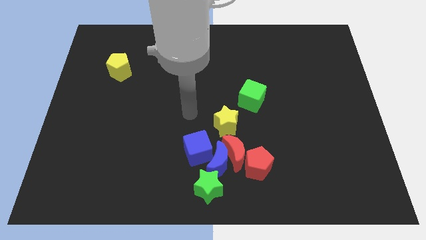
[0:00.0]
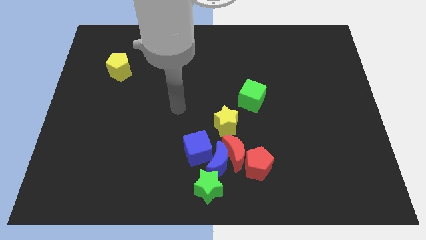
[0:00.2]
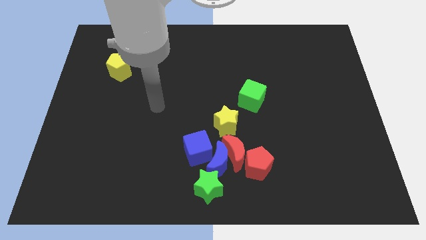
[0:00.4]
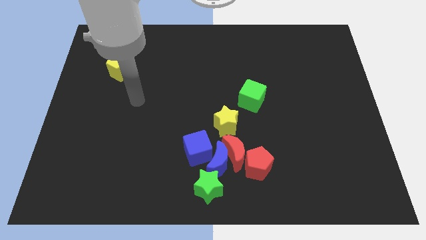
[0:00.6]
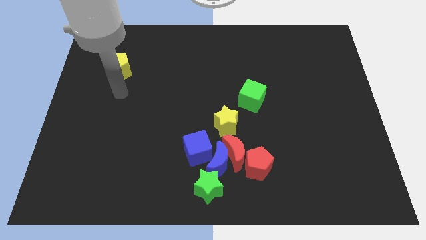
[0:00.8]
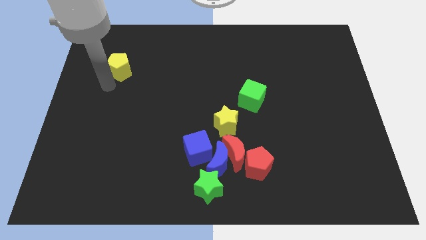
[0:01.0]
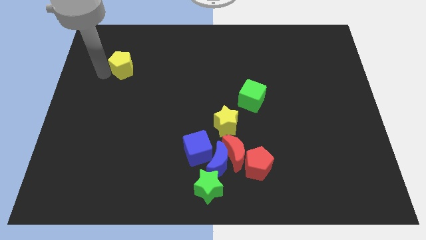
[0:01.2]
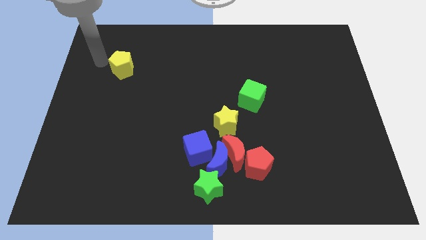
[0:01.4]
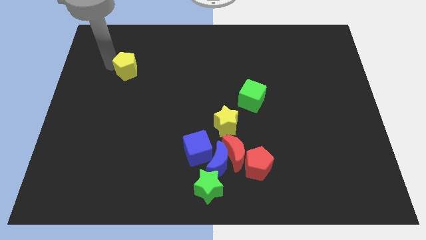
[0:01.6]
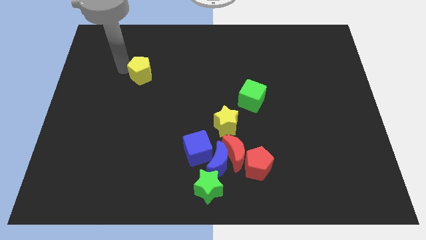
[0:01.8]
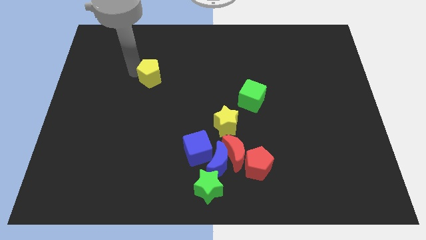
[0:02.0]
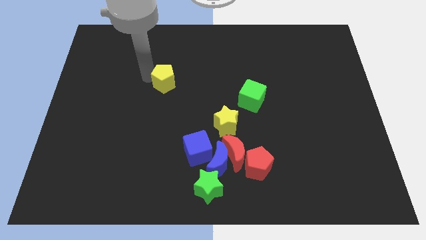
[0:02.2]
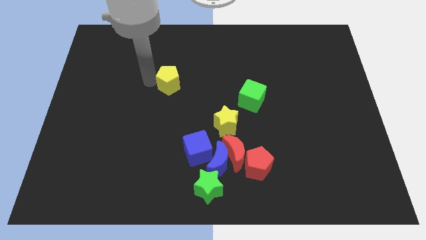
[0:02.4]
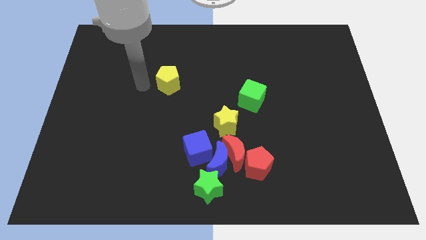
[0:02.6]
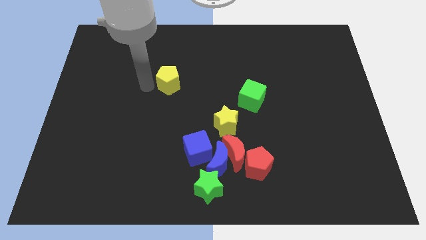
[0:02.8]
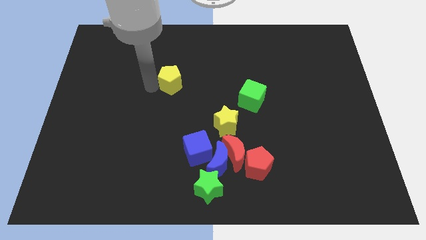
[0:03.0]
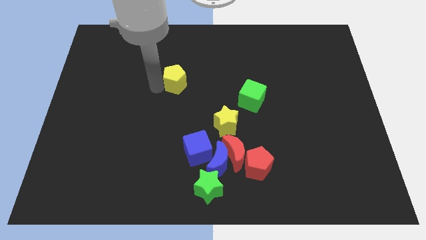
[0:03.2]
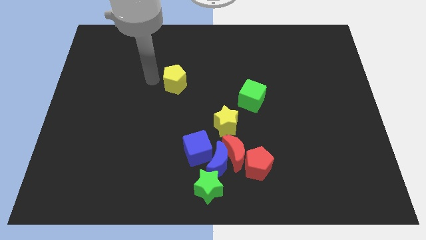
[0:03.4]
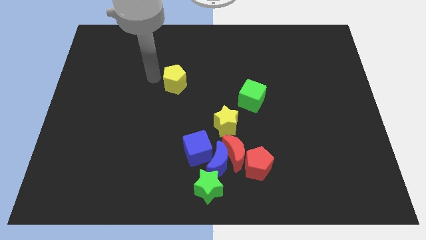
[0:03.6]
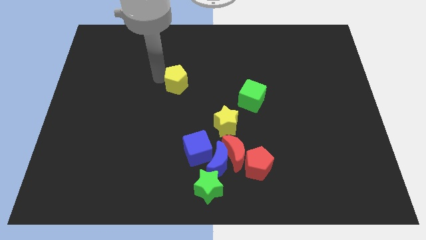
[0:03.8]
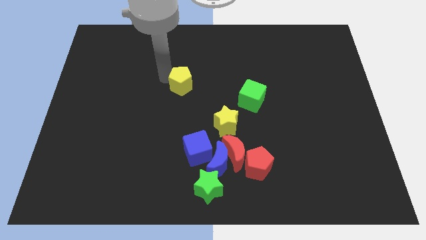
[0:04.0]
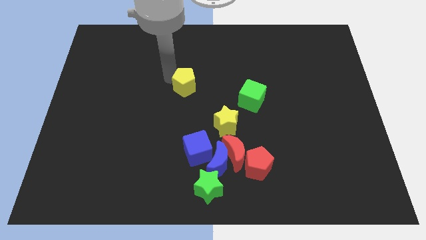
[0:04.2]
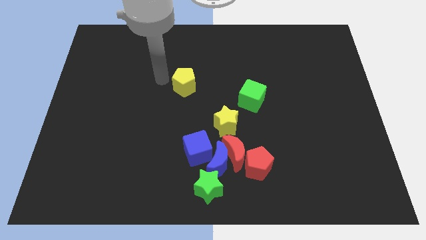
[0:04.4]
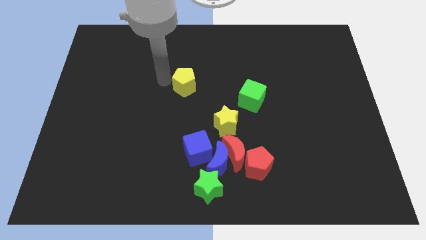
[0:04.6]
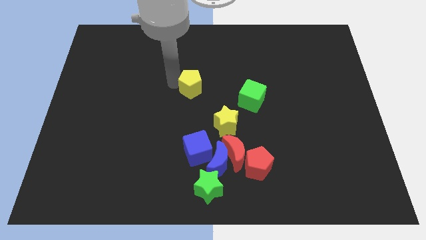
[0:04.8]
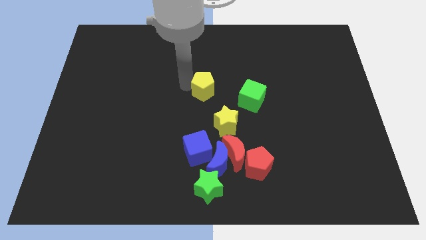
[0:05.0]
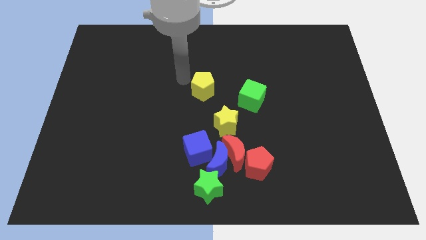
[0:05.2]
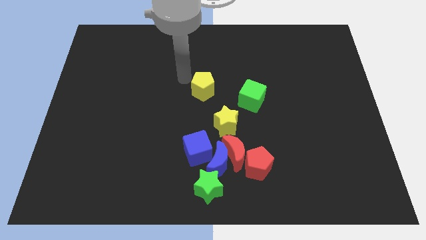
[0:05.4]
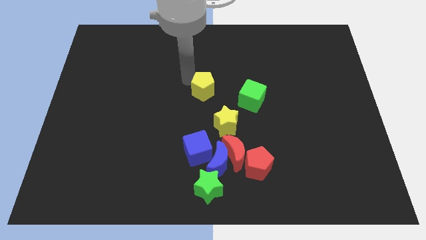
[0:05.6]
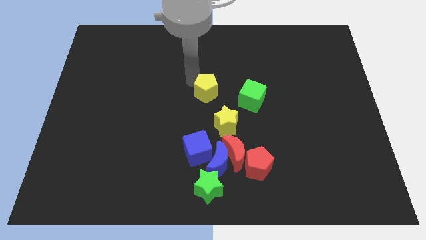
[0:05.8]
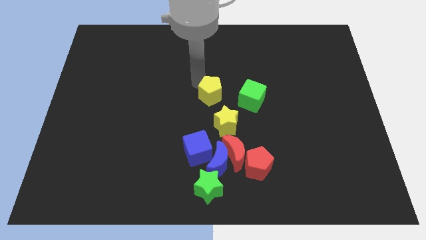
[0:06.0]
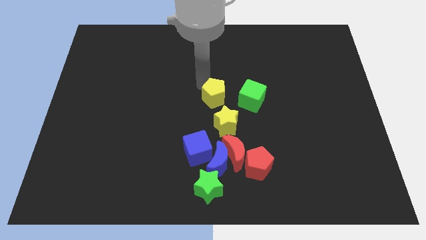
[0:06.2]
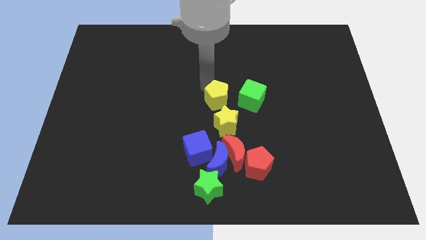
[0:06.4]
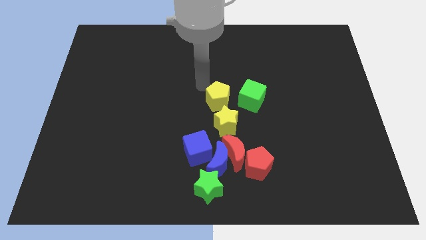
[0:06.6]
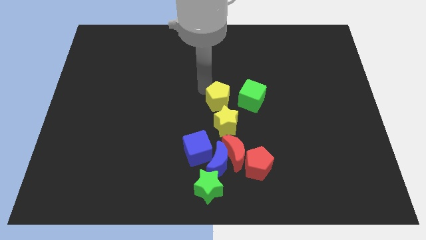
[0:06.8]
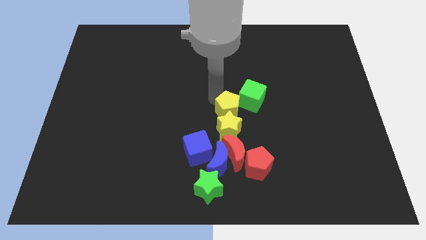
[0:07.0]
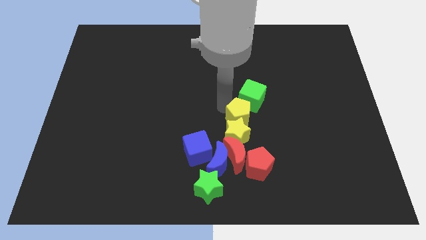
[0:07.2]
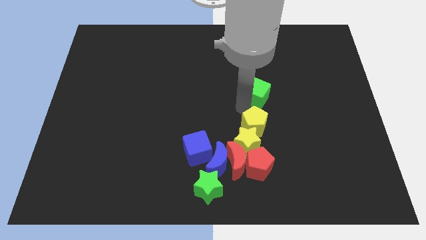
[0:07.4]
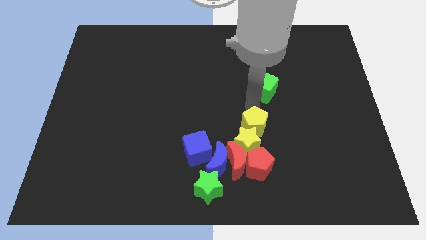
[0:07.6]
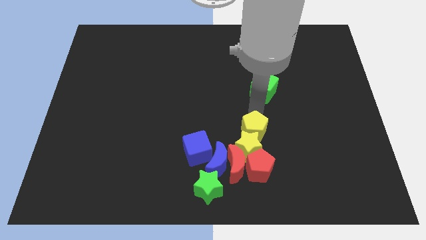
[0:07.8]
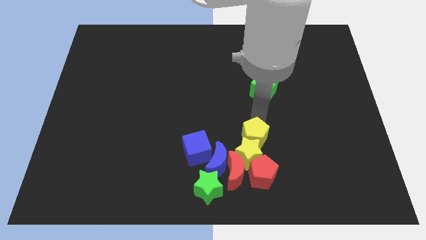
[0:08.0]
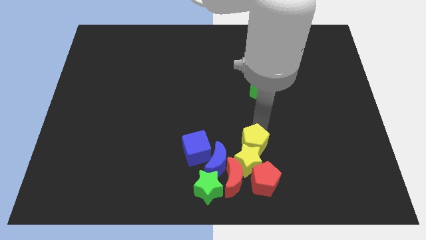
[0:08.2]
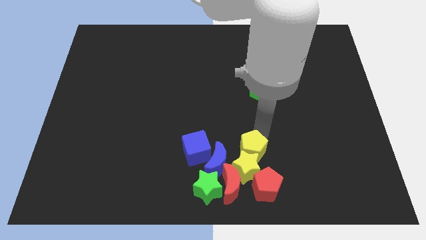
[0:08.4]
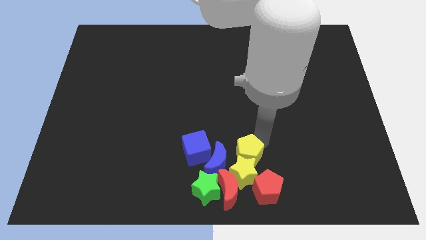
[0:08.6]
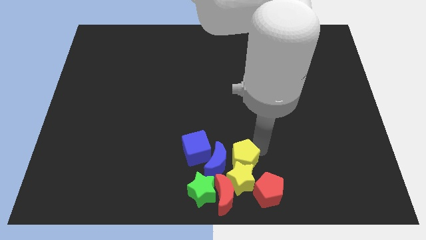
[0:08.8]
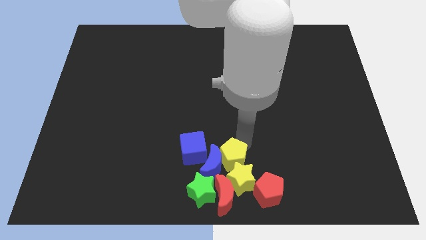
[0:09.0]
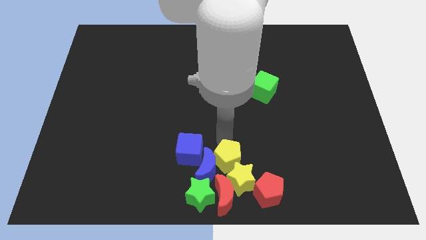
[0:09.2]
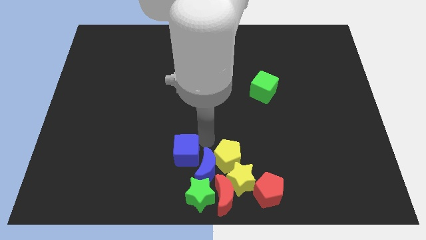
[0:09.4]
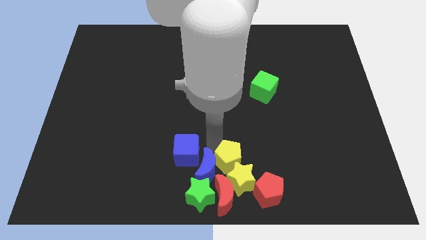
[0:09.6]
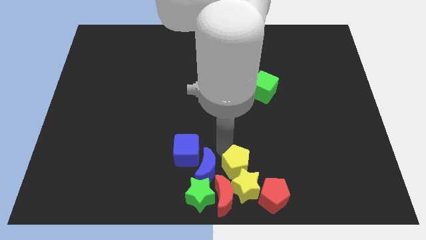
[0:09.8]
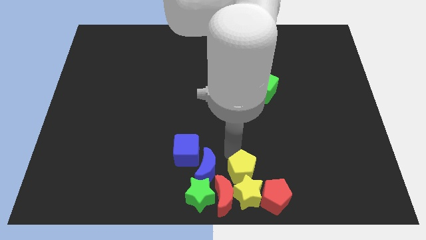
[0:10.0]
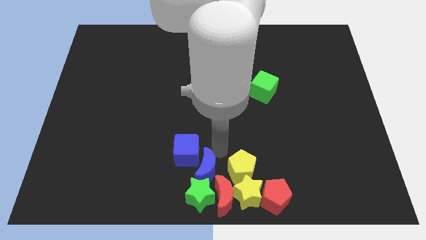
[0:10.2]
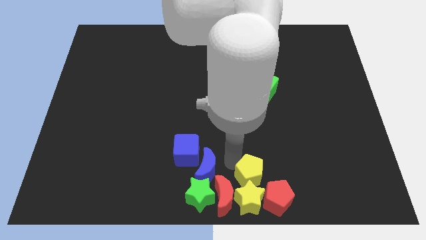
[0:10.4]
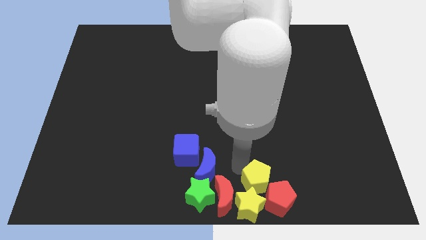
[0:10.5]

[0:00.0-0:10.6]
move the yellow pentagon next to the red pentagon

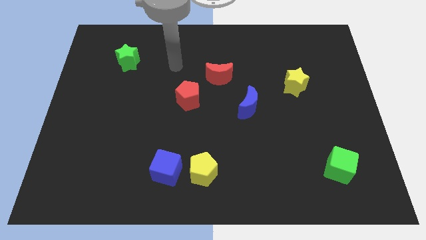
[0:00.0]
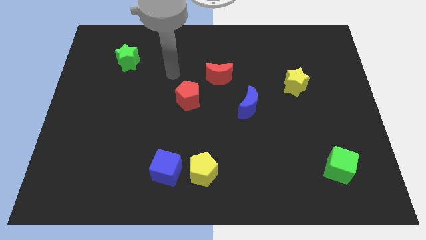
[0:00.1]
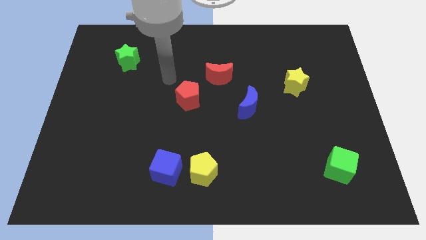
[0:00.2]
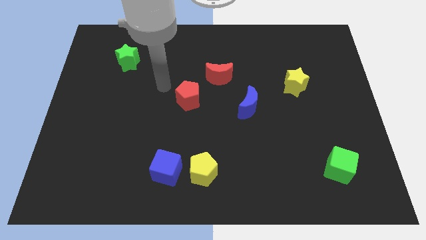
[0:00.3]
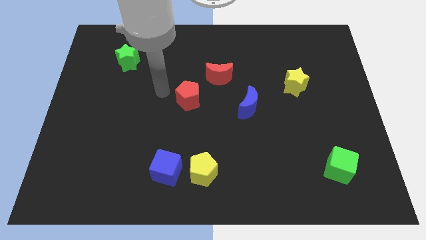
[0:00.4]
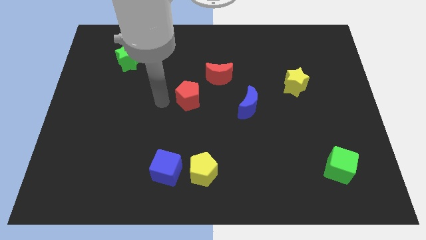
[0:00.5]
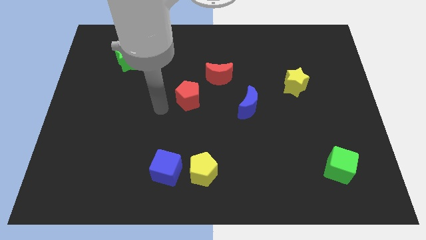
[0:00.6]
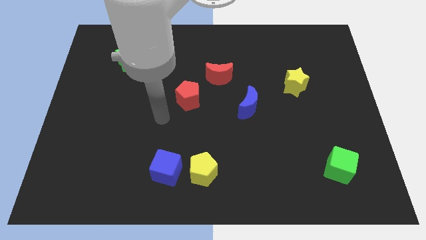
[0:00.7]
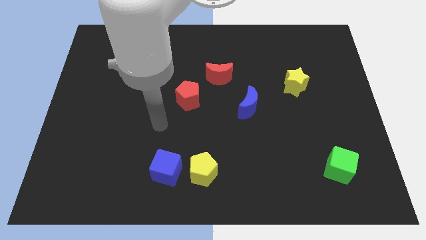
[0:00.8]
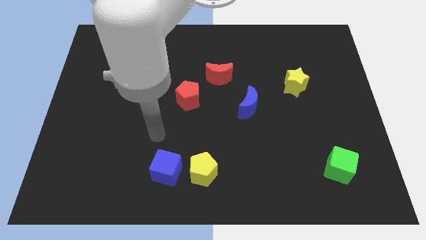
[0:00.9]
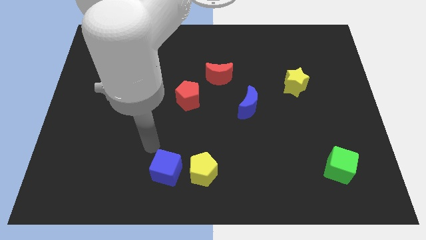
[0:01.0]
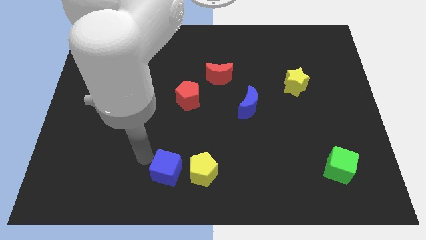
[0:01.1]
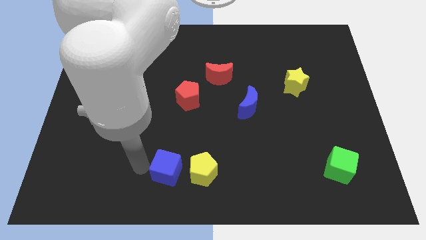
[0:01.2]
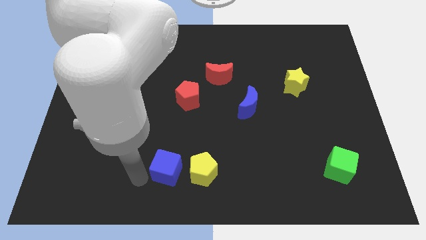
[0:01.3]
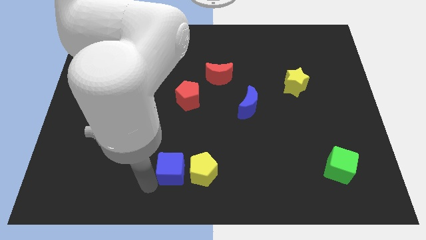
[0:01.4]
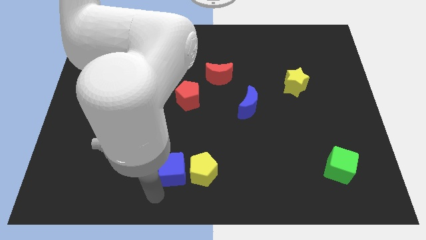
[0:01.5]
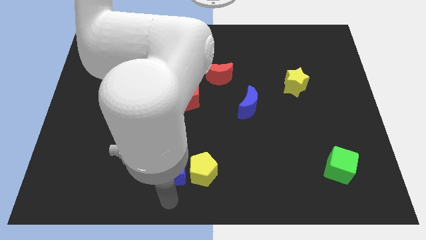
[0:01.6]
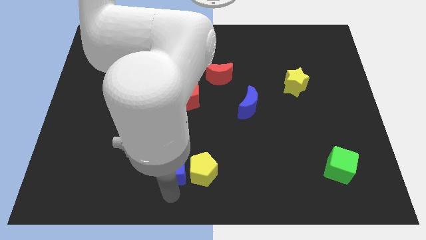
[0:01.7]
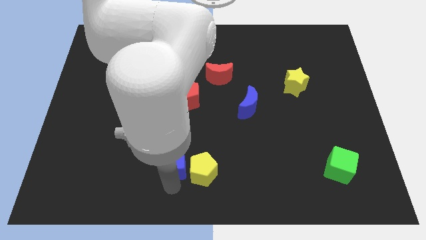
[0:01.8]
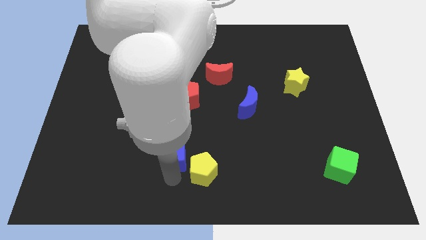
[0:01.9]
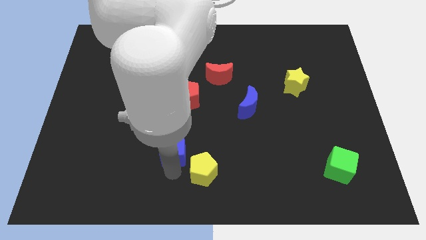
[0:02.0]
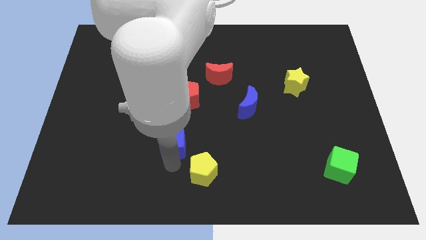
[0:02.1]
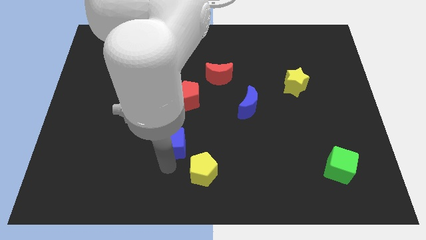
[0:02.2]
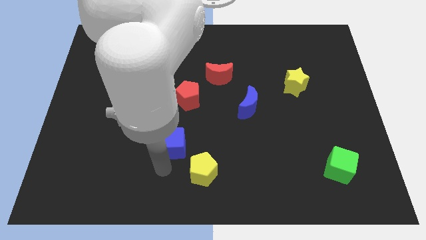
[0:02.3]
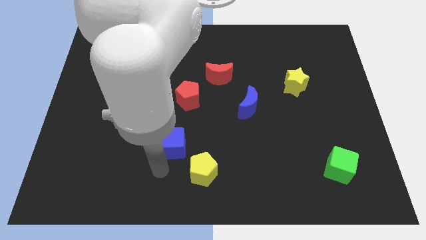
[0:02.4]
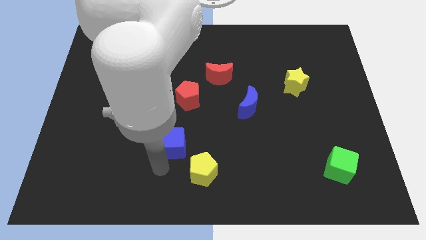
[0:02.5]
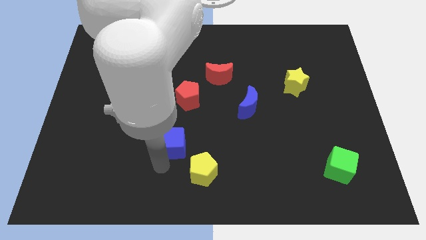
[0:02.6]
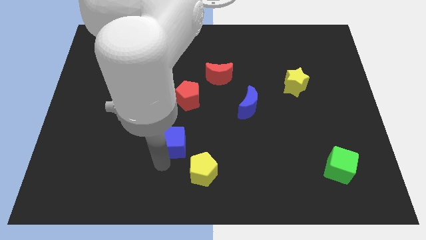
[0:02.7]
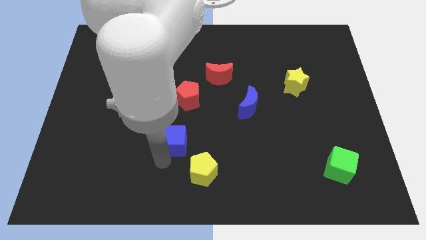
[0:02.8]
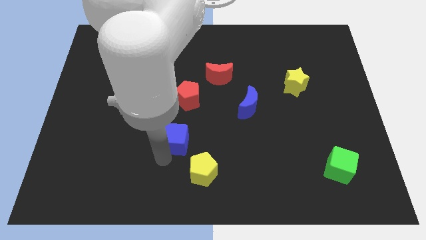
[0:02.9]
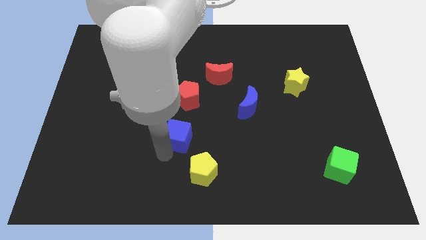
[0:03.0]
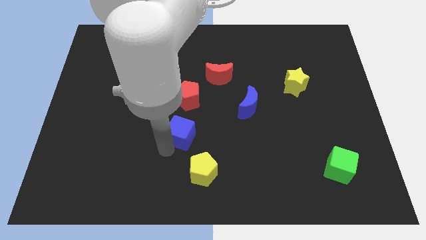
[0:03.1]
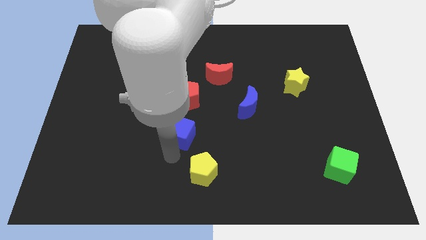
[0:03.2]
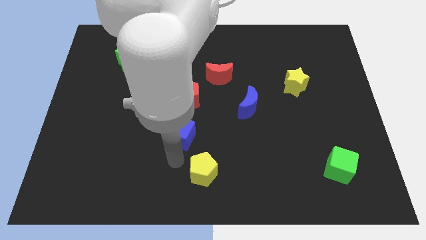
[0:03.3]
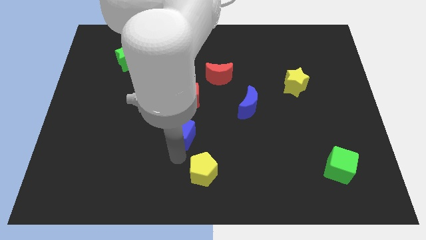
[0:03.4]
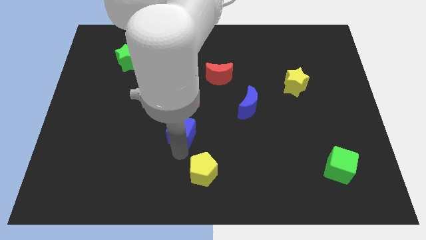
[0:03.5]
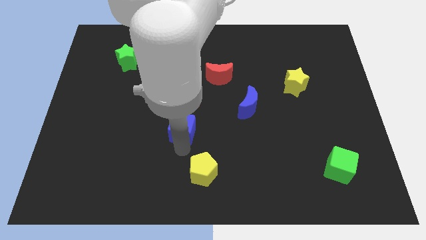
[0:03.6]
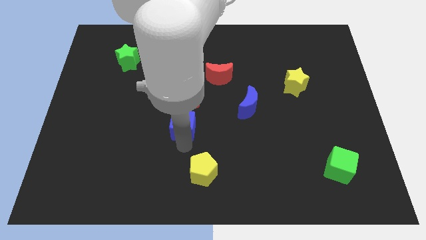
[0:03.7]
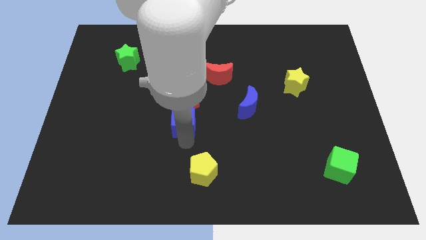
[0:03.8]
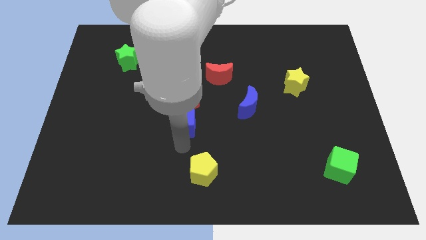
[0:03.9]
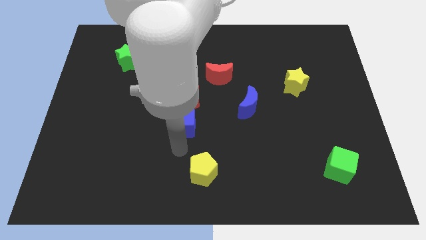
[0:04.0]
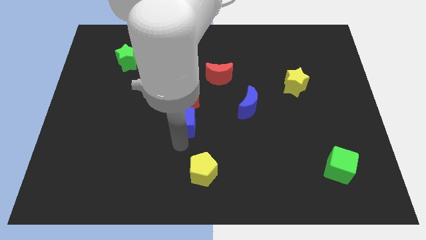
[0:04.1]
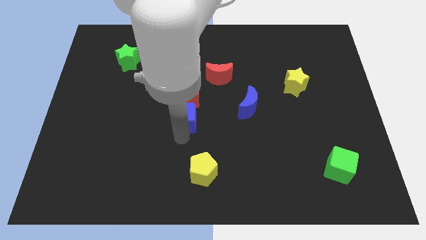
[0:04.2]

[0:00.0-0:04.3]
push the blue cube close to the red pentagon
